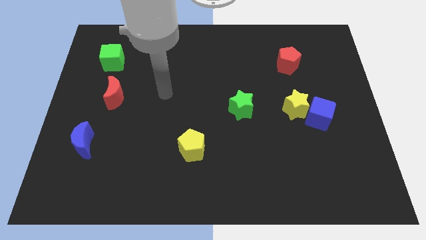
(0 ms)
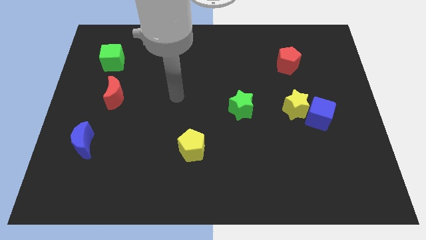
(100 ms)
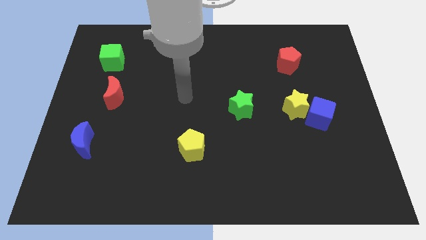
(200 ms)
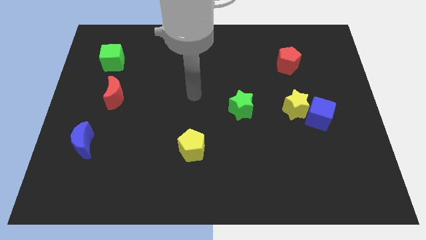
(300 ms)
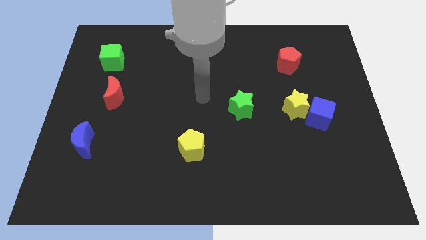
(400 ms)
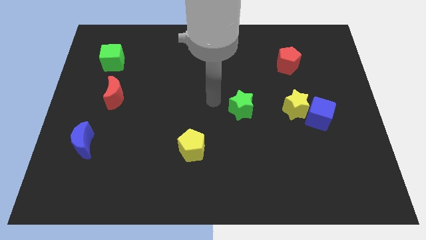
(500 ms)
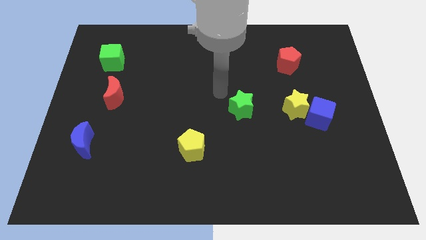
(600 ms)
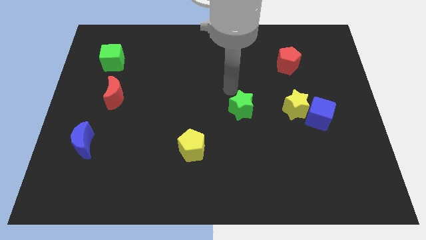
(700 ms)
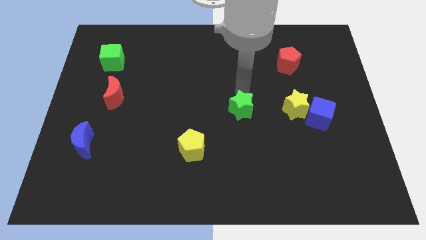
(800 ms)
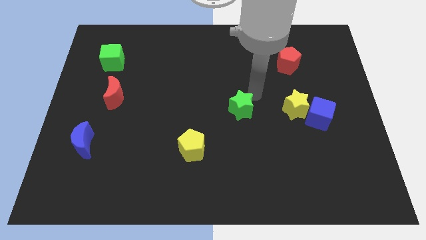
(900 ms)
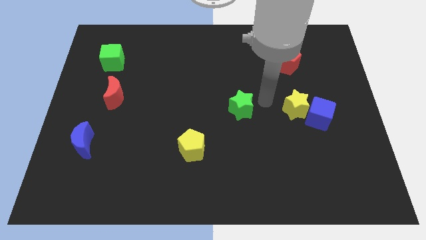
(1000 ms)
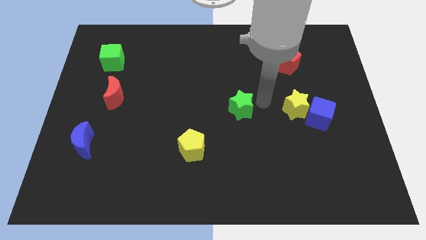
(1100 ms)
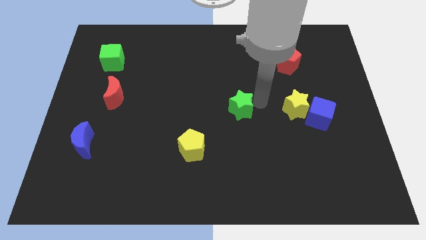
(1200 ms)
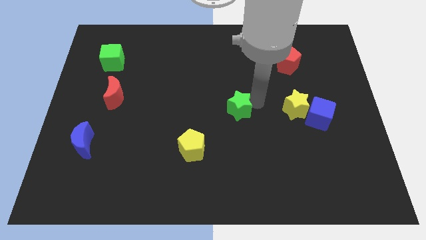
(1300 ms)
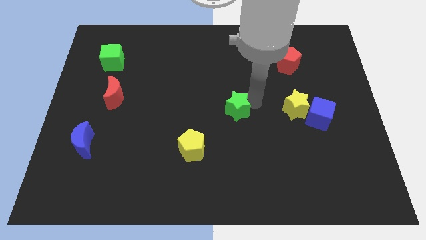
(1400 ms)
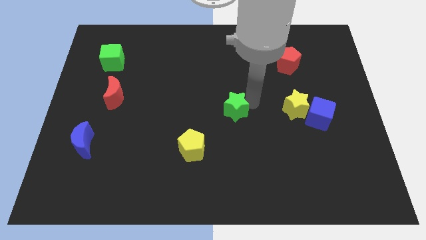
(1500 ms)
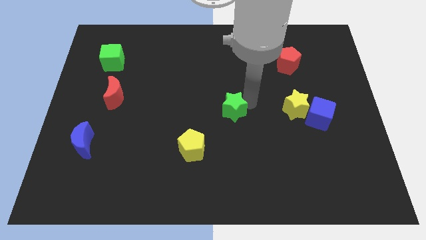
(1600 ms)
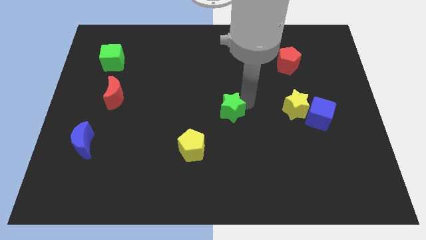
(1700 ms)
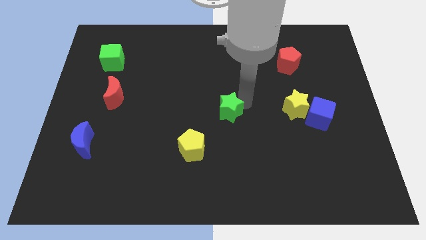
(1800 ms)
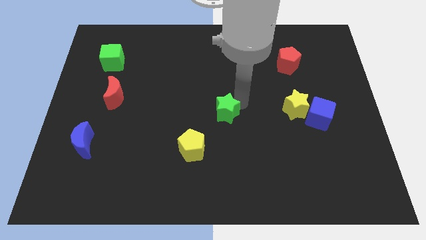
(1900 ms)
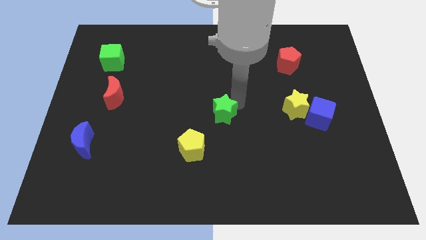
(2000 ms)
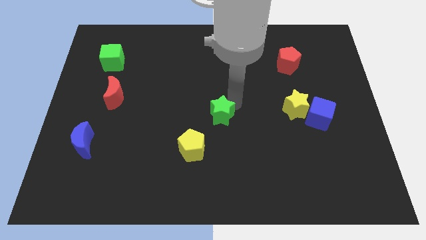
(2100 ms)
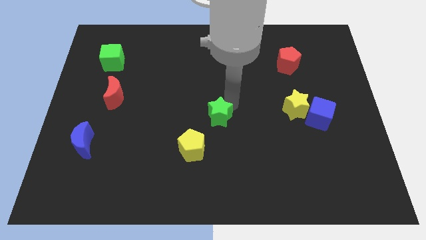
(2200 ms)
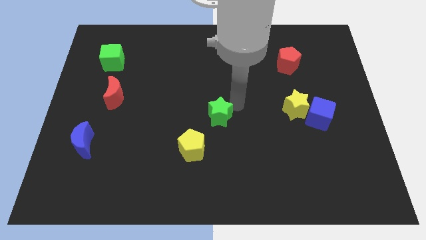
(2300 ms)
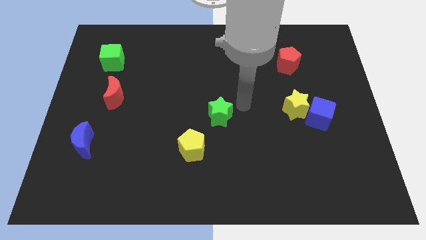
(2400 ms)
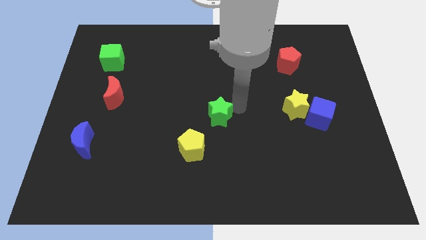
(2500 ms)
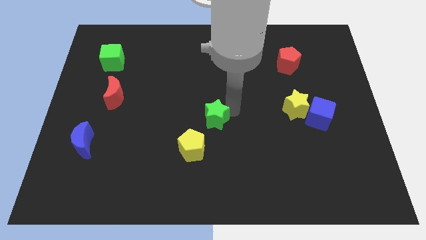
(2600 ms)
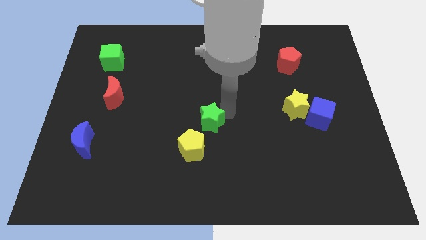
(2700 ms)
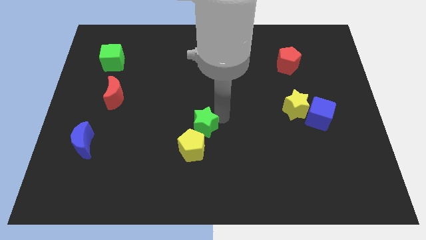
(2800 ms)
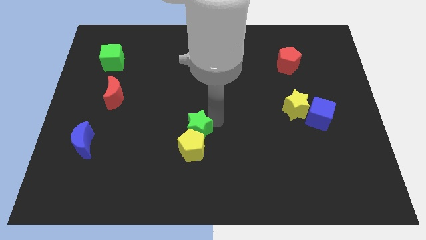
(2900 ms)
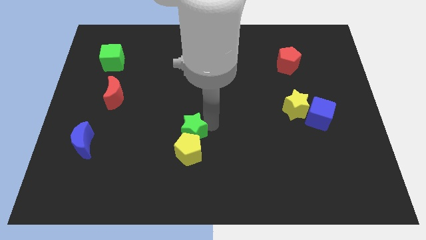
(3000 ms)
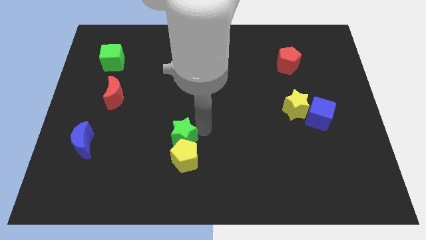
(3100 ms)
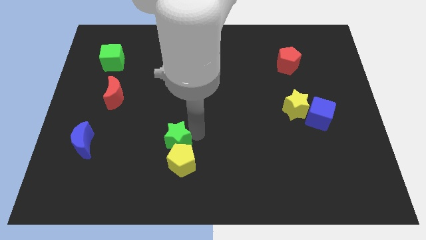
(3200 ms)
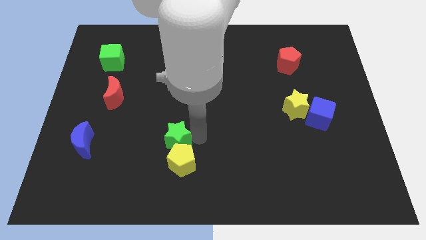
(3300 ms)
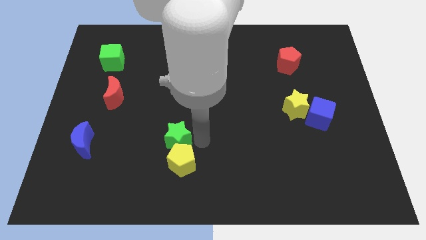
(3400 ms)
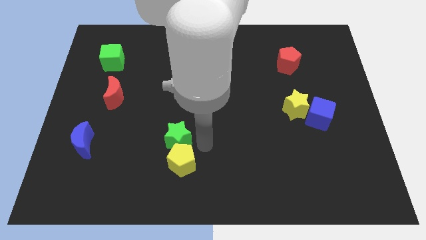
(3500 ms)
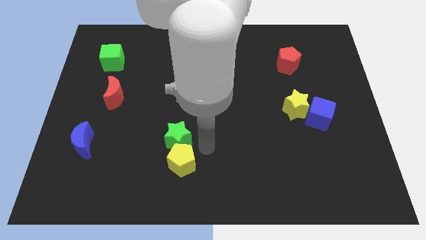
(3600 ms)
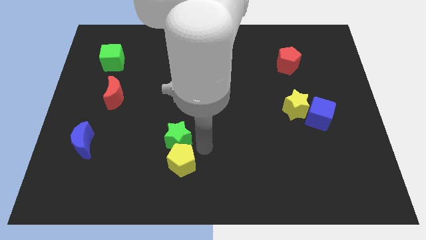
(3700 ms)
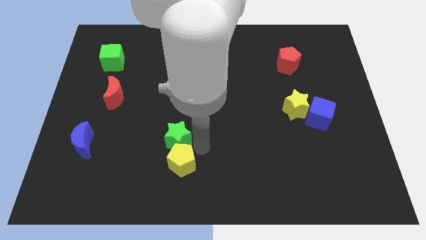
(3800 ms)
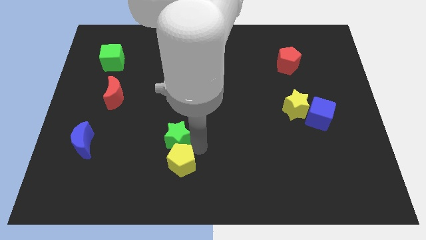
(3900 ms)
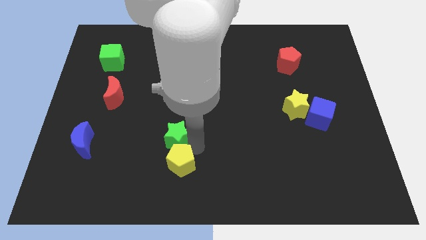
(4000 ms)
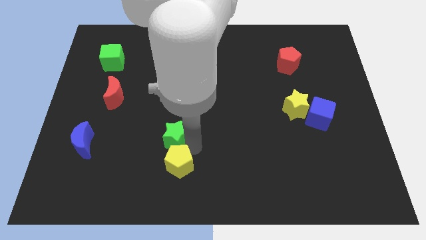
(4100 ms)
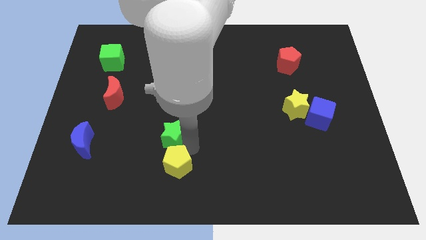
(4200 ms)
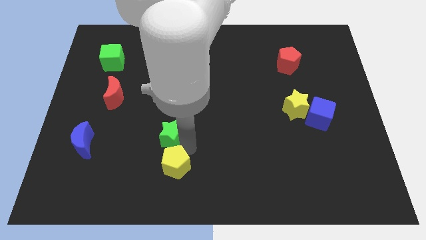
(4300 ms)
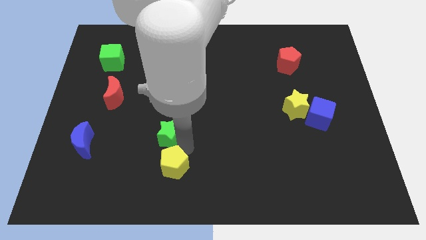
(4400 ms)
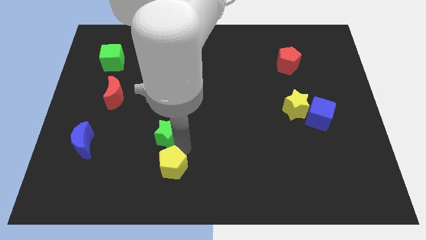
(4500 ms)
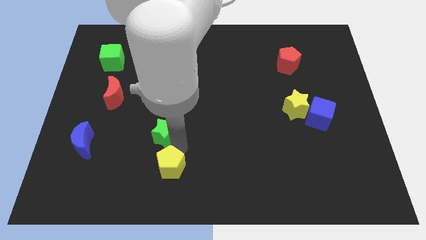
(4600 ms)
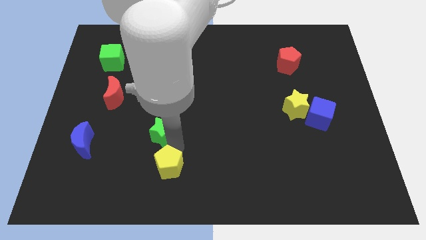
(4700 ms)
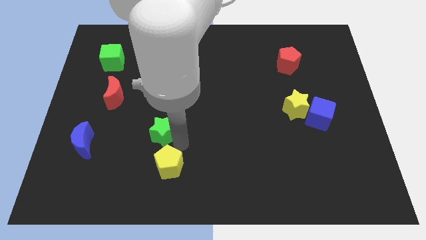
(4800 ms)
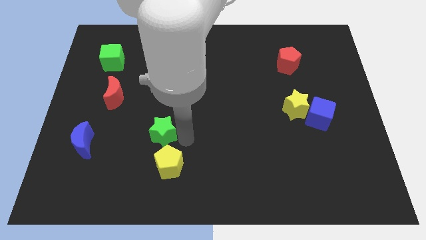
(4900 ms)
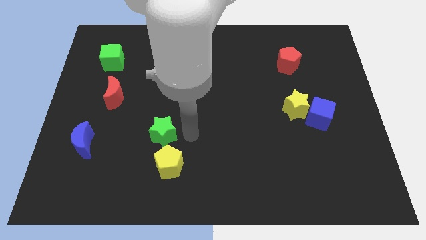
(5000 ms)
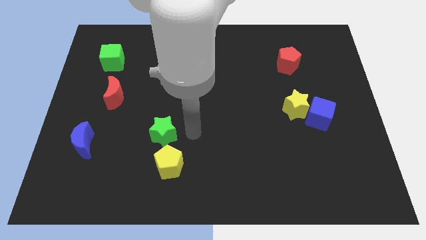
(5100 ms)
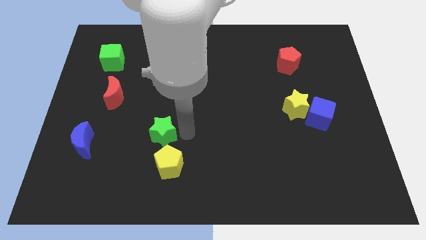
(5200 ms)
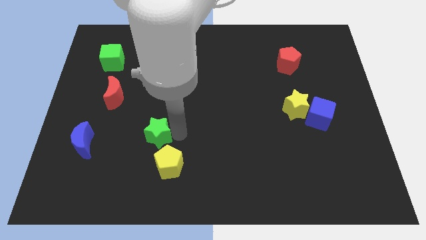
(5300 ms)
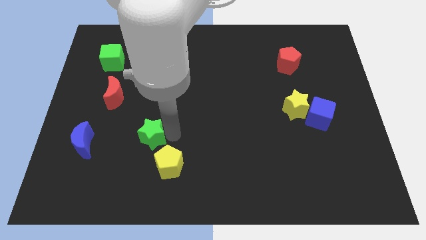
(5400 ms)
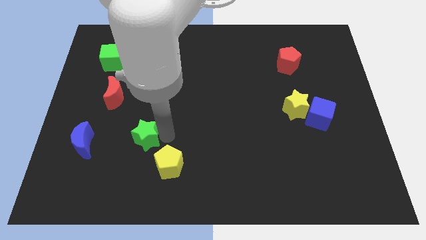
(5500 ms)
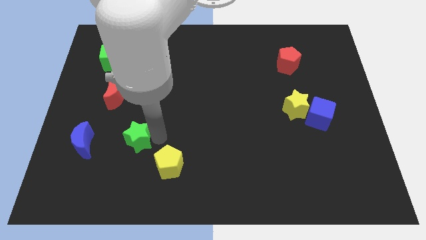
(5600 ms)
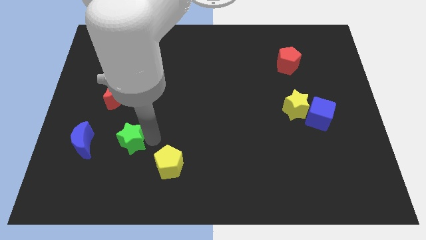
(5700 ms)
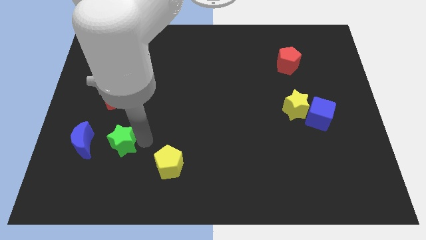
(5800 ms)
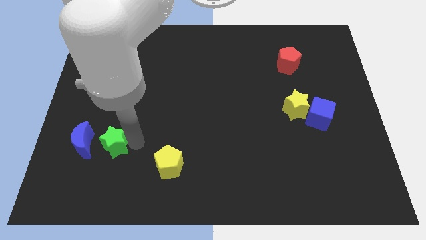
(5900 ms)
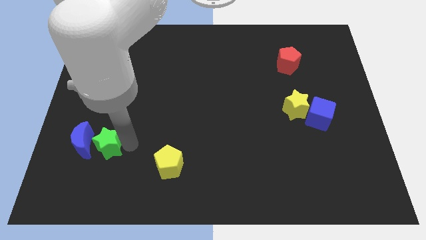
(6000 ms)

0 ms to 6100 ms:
put the green star to the blue moon

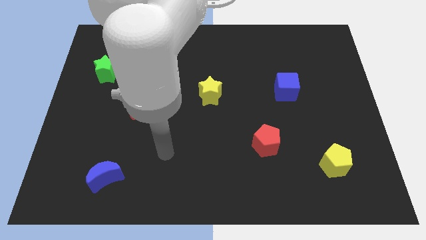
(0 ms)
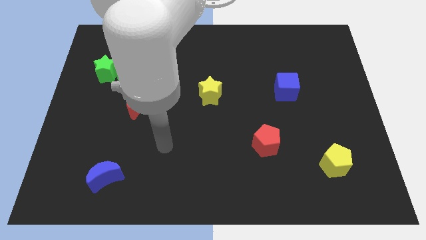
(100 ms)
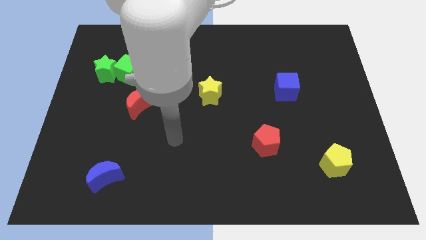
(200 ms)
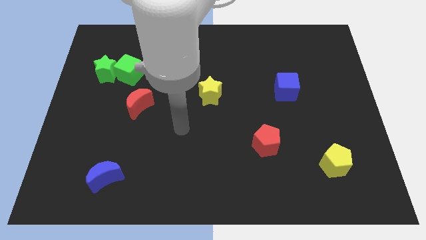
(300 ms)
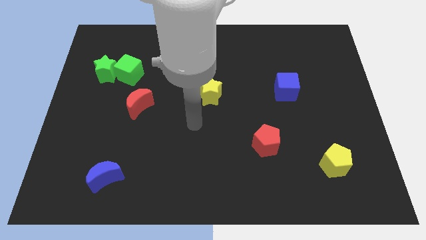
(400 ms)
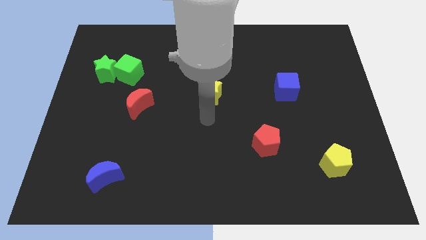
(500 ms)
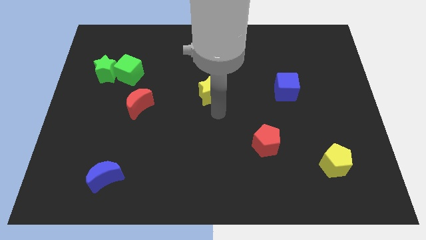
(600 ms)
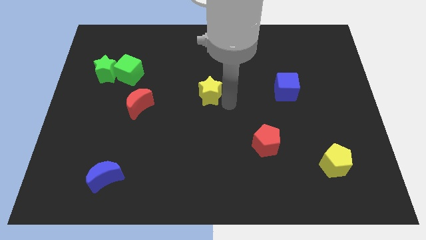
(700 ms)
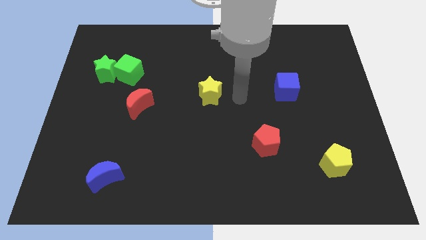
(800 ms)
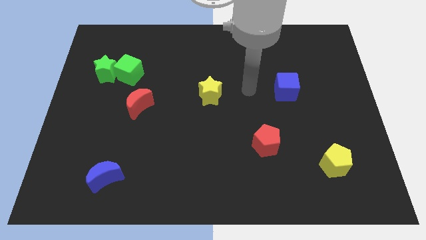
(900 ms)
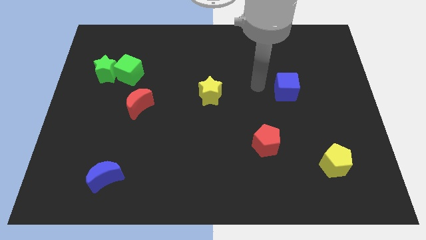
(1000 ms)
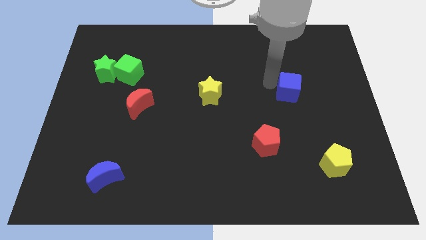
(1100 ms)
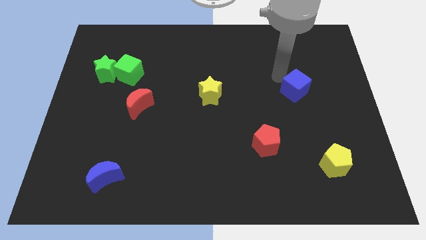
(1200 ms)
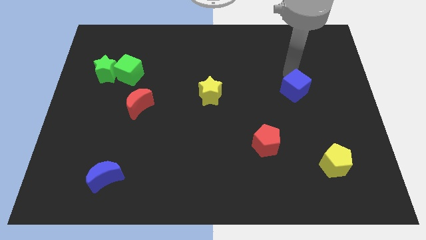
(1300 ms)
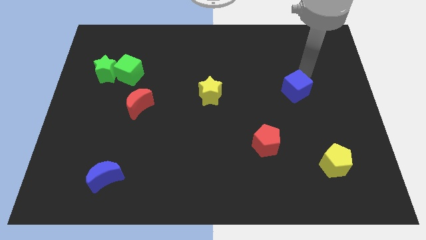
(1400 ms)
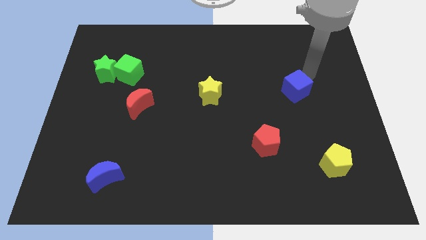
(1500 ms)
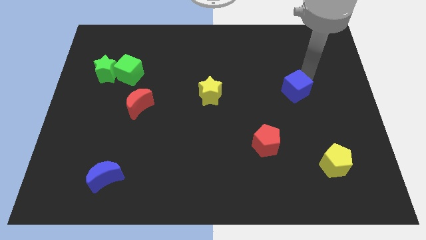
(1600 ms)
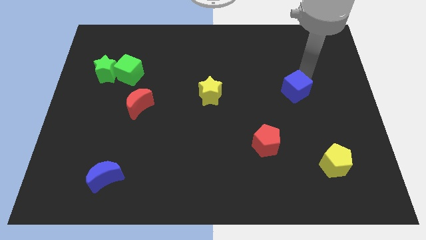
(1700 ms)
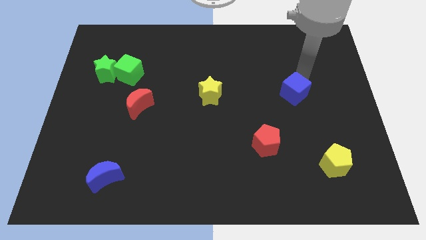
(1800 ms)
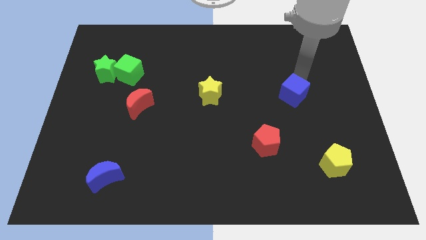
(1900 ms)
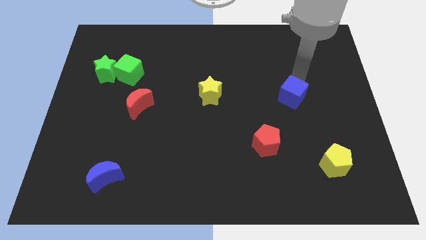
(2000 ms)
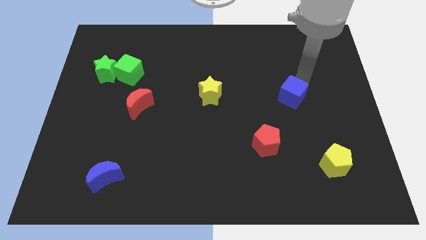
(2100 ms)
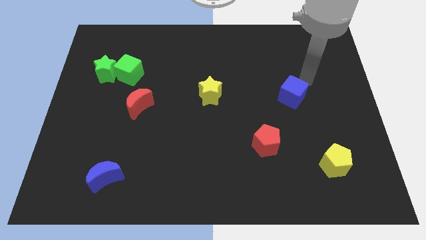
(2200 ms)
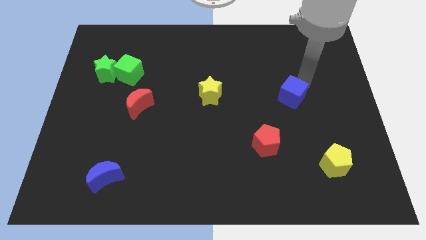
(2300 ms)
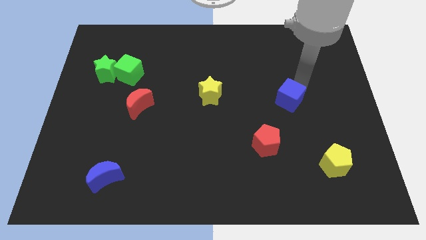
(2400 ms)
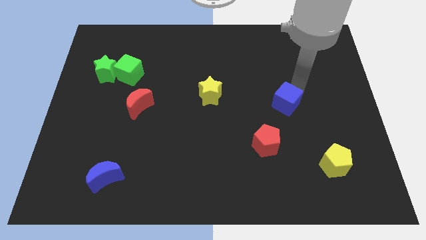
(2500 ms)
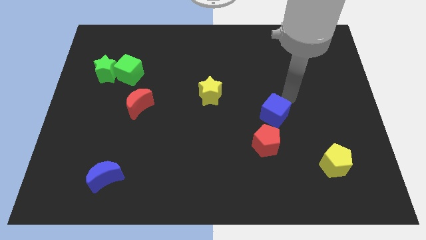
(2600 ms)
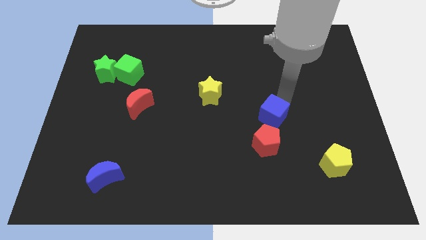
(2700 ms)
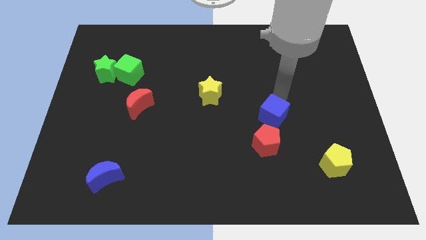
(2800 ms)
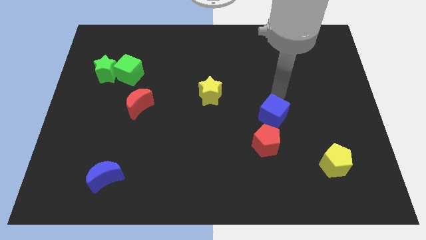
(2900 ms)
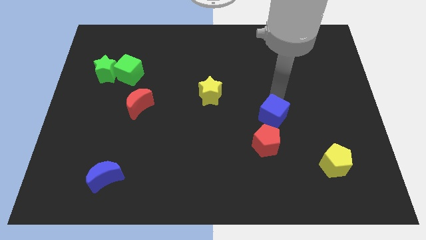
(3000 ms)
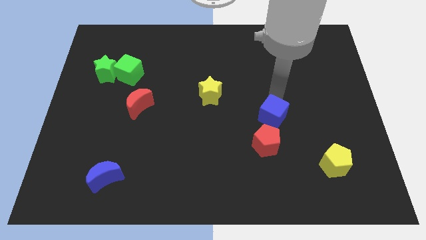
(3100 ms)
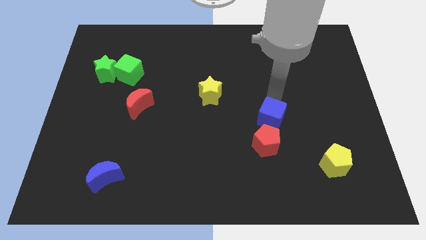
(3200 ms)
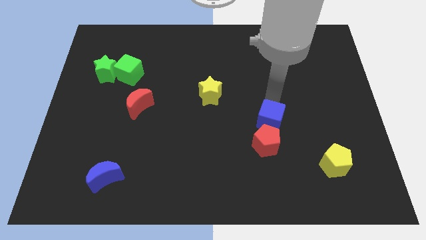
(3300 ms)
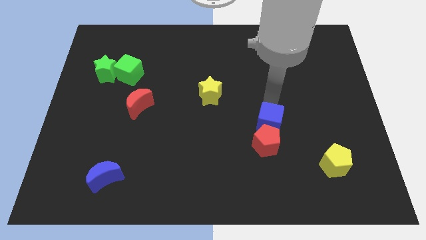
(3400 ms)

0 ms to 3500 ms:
slide the blue cube next to the red pentagon
